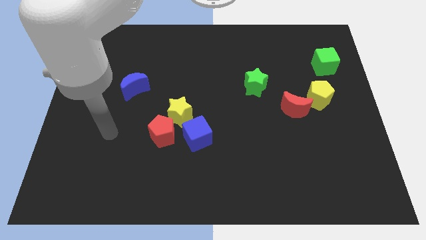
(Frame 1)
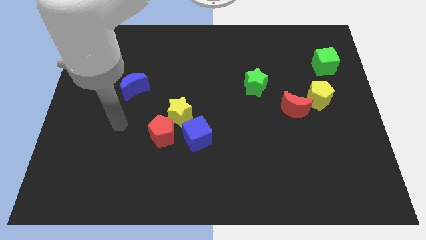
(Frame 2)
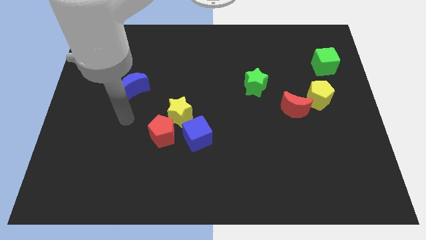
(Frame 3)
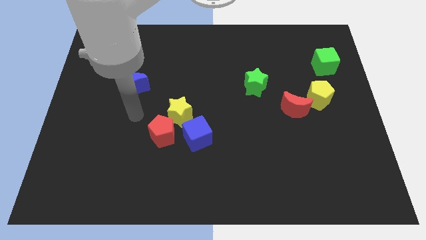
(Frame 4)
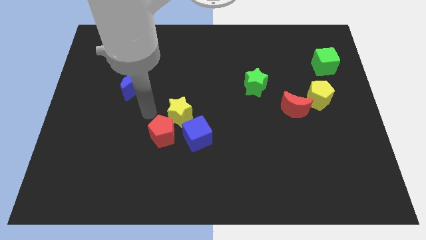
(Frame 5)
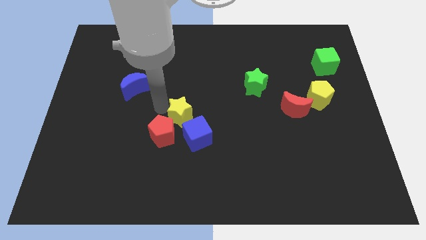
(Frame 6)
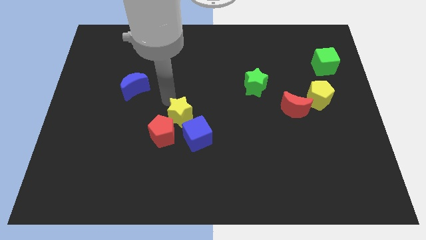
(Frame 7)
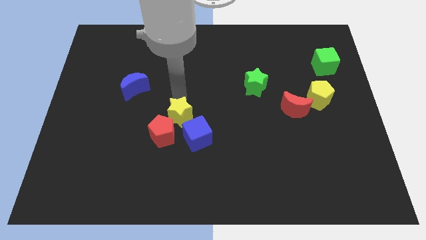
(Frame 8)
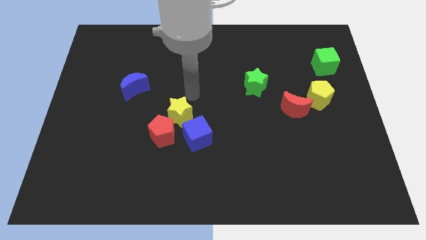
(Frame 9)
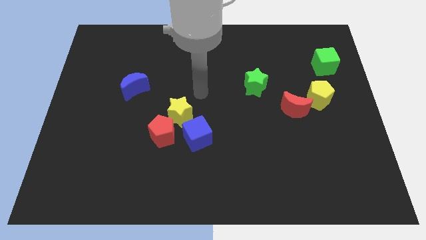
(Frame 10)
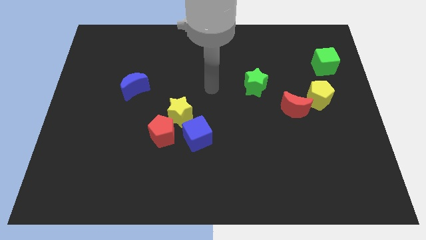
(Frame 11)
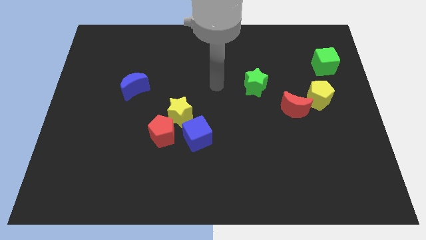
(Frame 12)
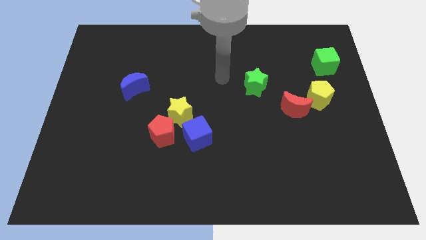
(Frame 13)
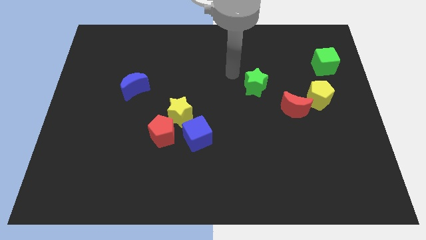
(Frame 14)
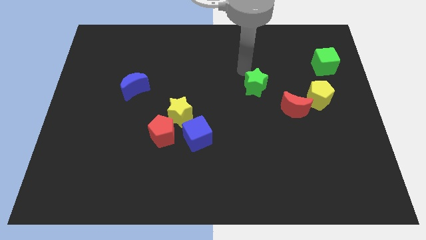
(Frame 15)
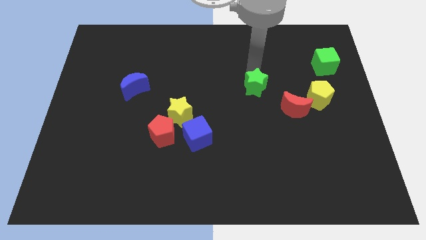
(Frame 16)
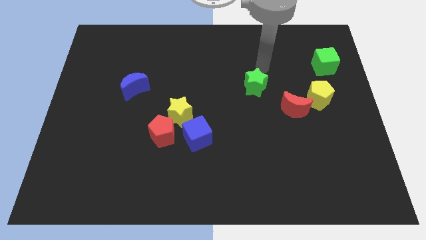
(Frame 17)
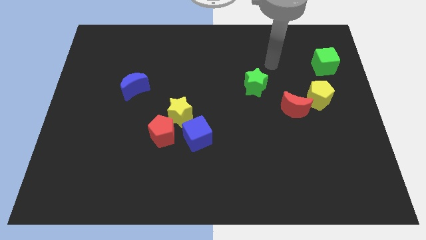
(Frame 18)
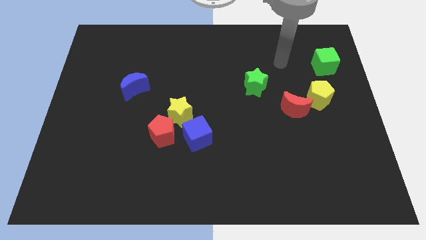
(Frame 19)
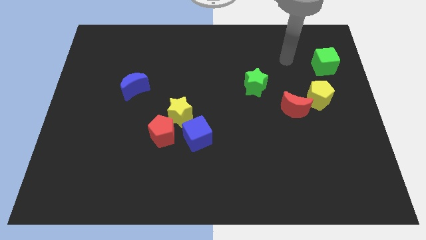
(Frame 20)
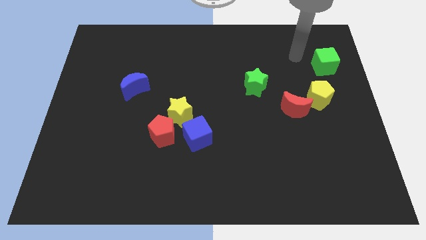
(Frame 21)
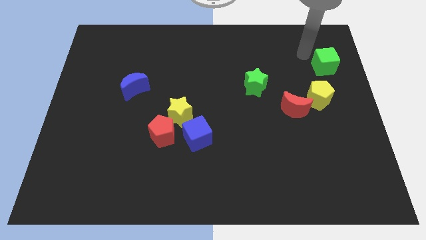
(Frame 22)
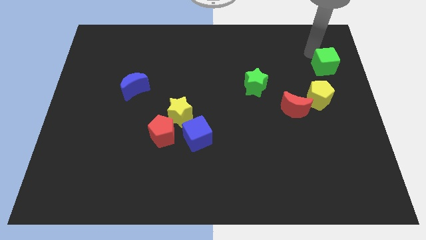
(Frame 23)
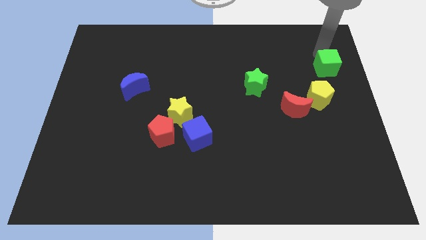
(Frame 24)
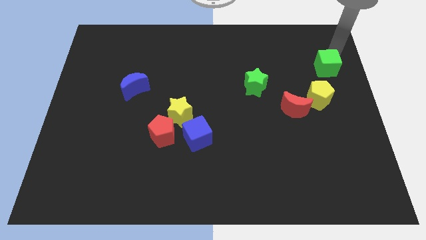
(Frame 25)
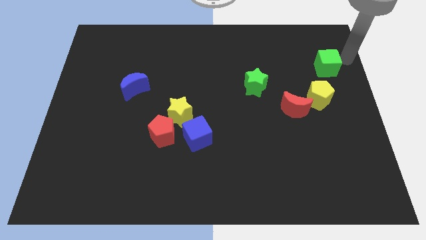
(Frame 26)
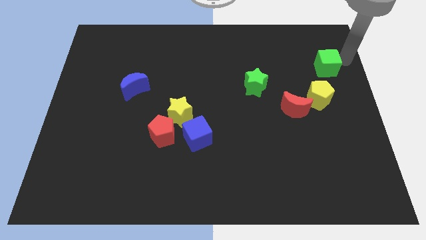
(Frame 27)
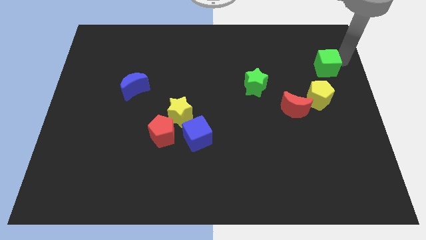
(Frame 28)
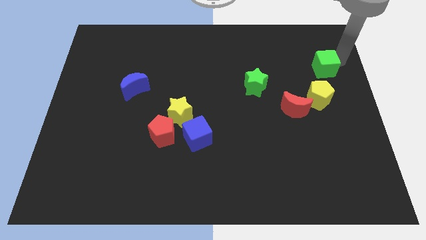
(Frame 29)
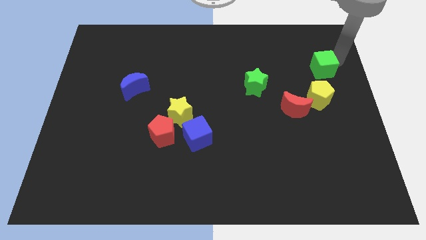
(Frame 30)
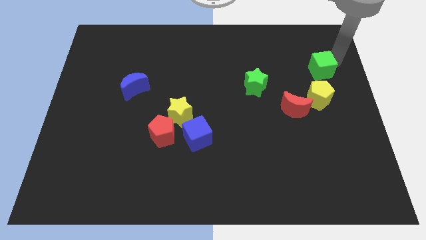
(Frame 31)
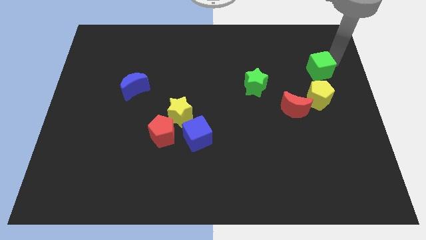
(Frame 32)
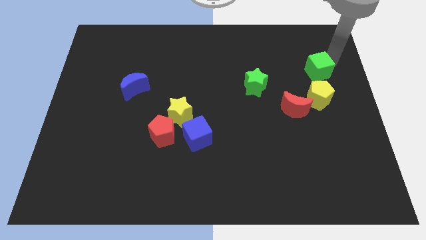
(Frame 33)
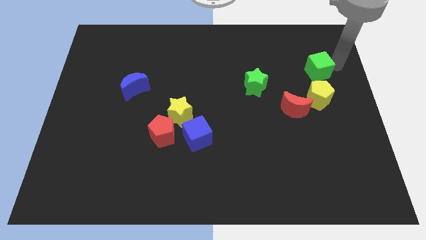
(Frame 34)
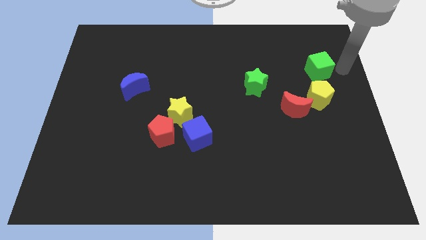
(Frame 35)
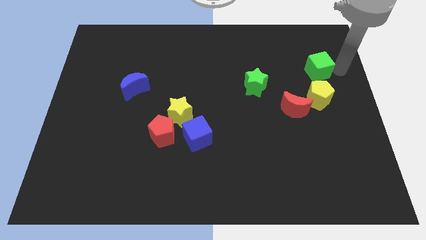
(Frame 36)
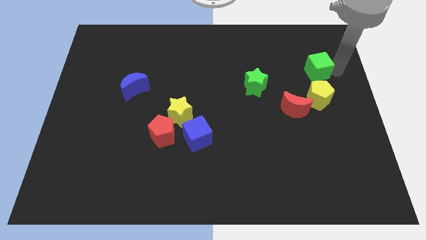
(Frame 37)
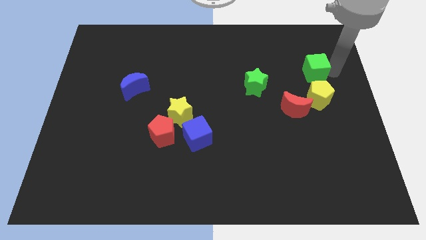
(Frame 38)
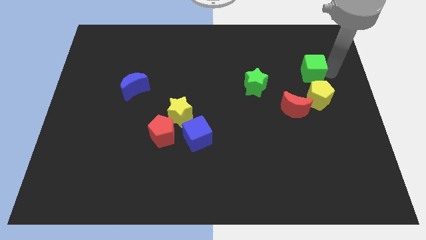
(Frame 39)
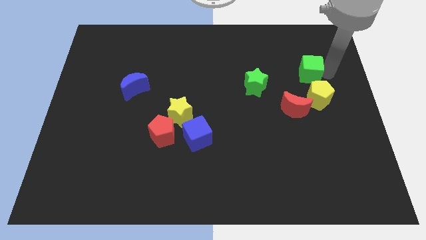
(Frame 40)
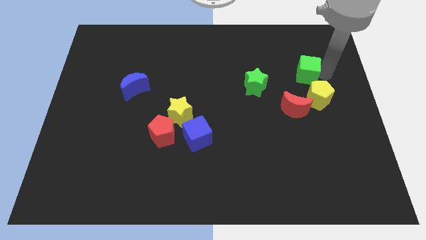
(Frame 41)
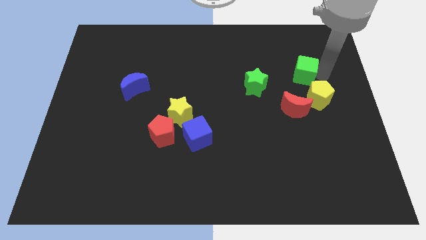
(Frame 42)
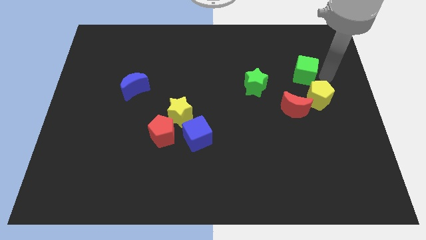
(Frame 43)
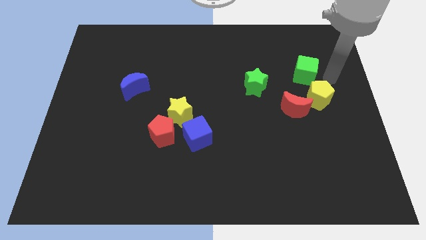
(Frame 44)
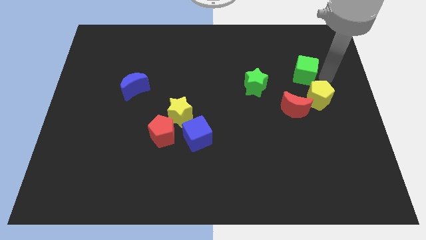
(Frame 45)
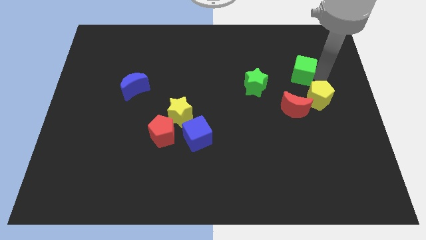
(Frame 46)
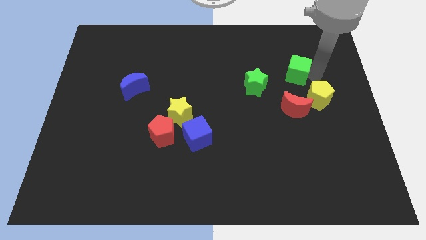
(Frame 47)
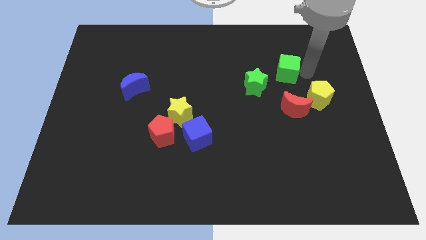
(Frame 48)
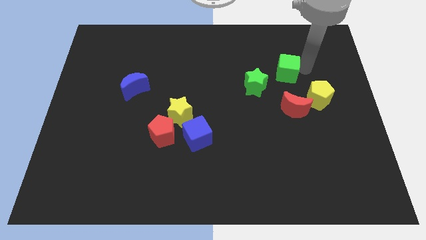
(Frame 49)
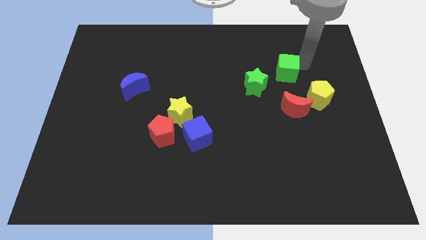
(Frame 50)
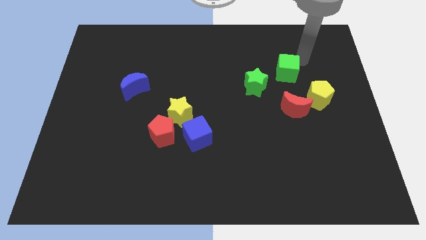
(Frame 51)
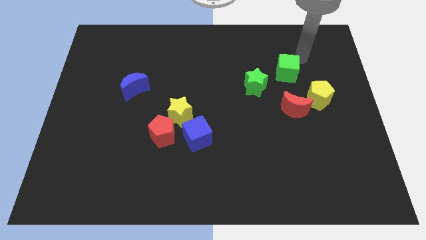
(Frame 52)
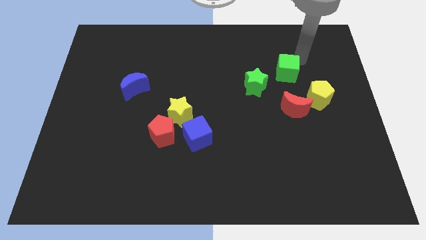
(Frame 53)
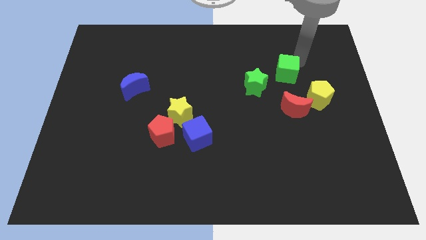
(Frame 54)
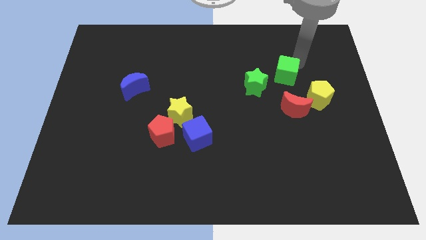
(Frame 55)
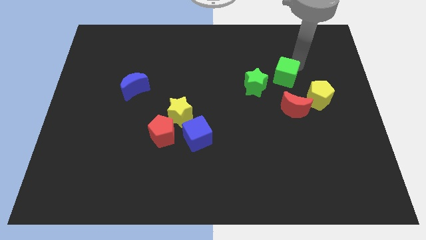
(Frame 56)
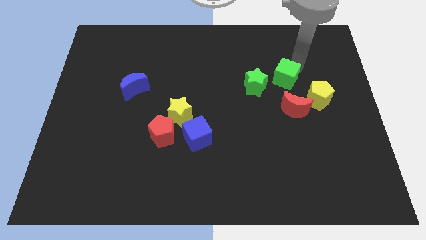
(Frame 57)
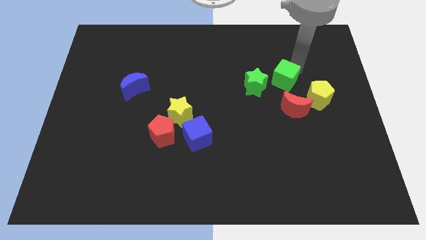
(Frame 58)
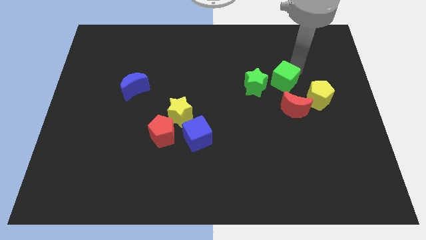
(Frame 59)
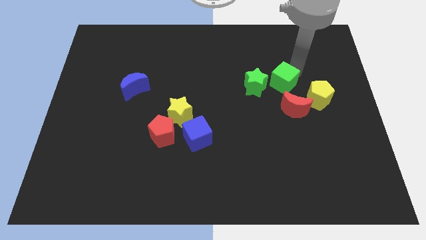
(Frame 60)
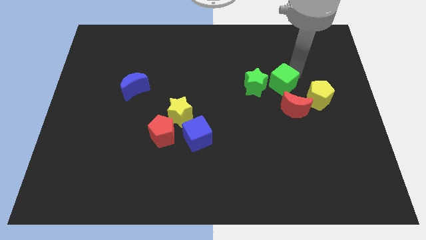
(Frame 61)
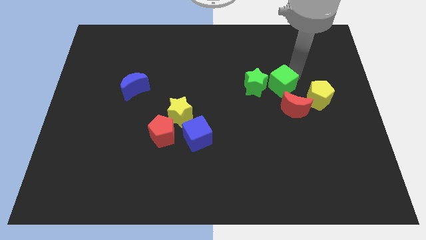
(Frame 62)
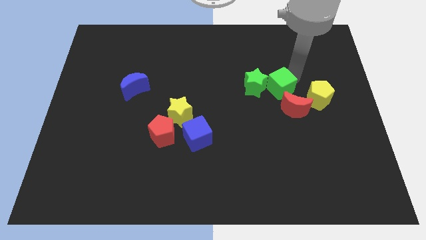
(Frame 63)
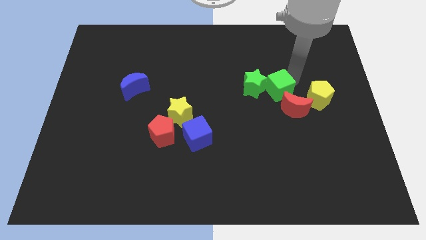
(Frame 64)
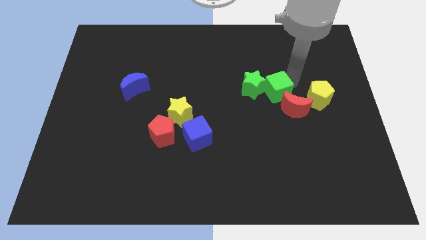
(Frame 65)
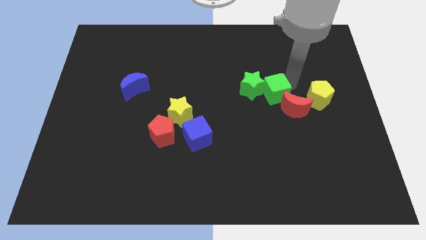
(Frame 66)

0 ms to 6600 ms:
put the green cube next to the red moon

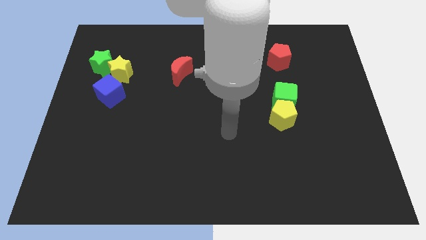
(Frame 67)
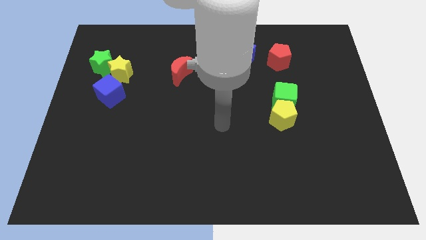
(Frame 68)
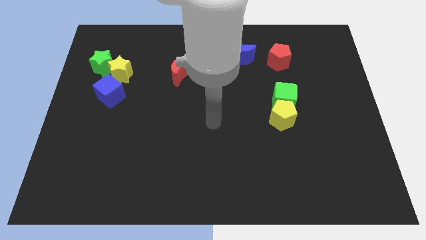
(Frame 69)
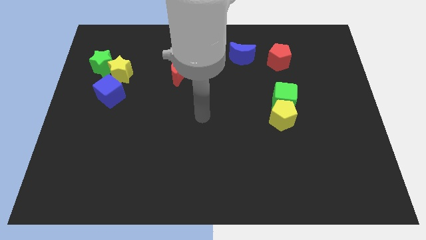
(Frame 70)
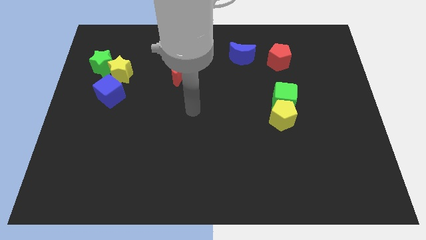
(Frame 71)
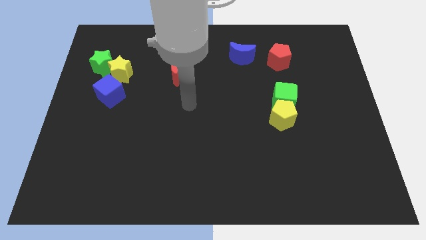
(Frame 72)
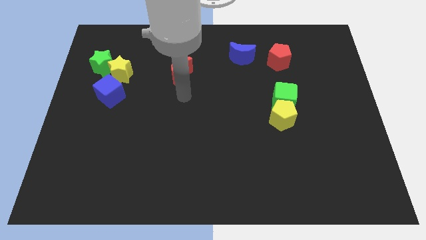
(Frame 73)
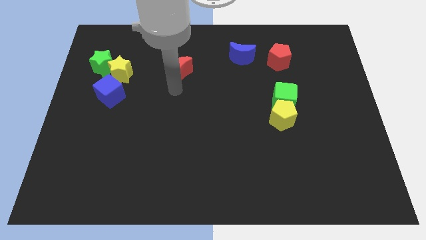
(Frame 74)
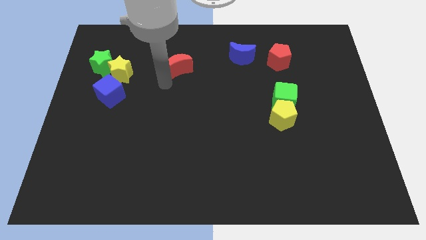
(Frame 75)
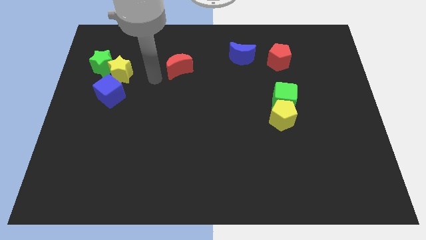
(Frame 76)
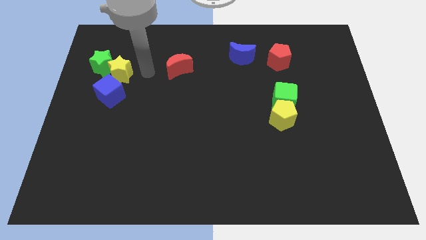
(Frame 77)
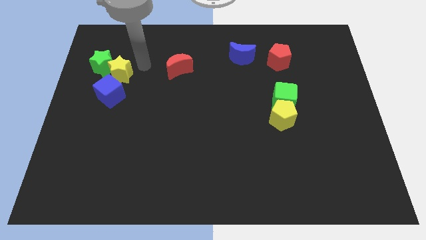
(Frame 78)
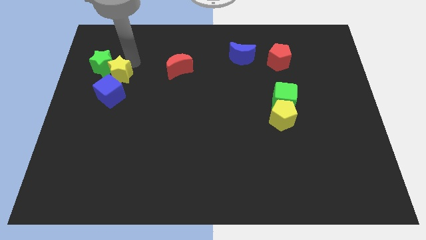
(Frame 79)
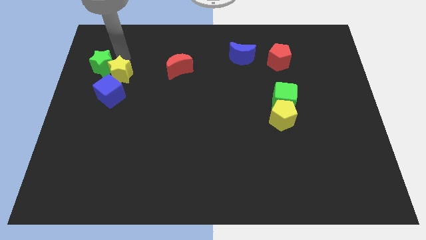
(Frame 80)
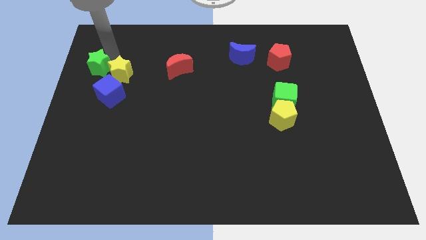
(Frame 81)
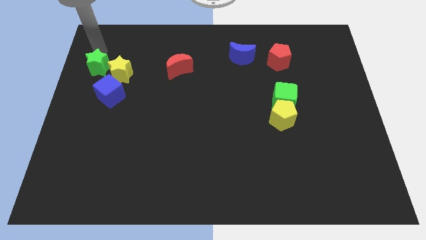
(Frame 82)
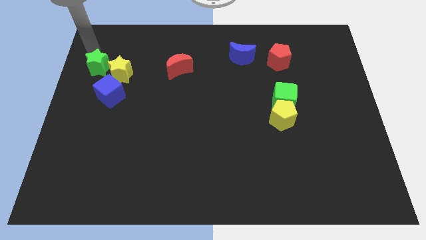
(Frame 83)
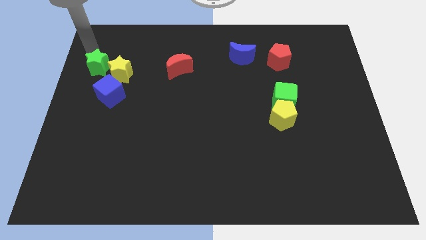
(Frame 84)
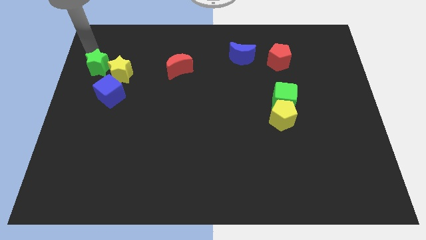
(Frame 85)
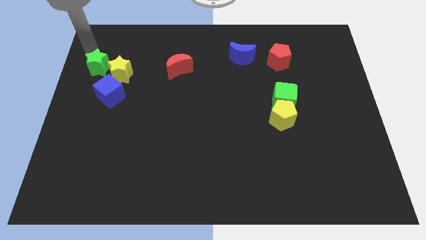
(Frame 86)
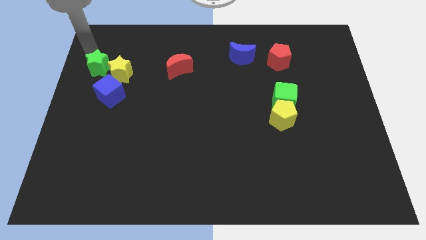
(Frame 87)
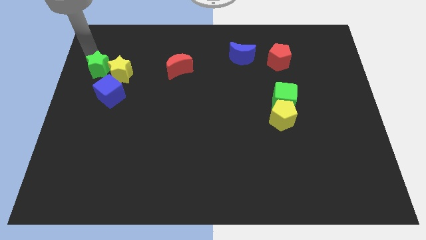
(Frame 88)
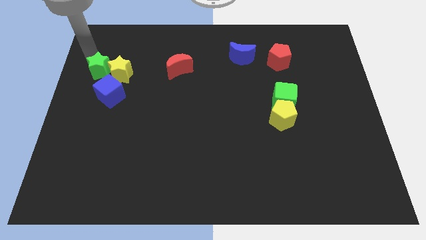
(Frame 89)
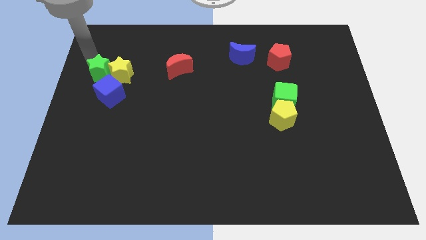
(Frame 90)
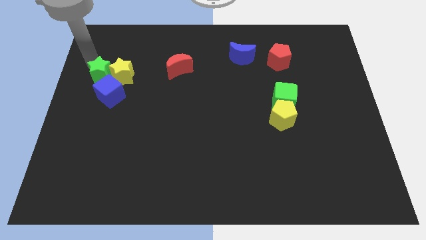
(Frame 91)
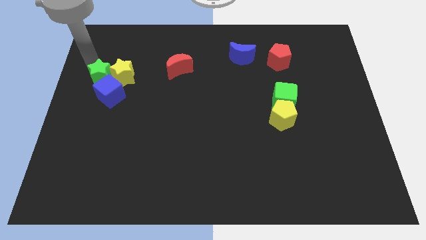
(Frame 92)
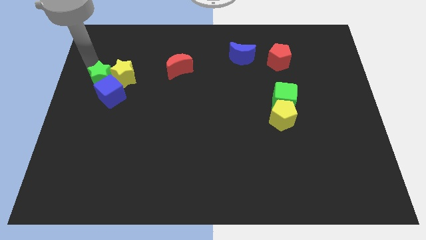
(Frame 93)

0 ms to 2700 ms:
move the green star close to the blue cube
